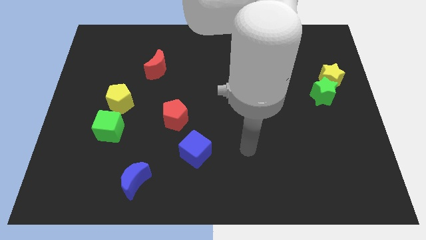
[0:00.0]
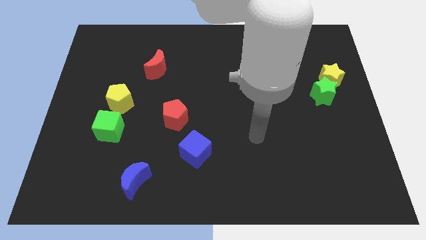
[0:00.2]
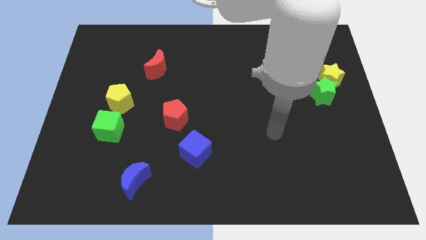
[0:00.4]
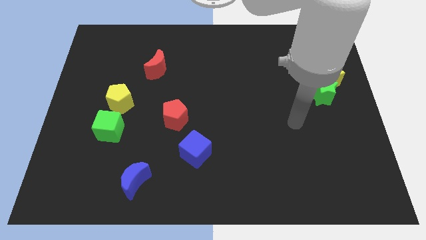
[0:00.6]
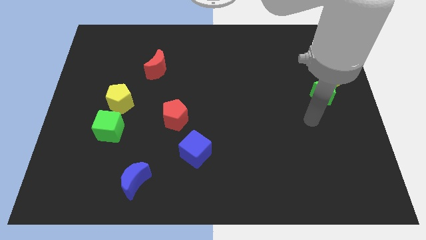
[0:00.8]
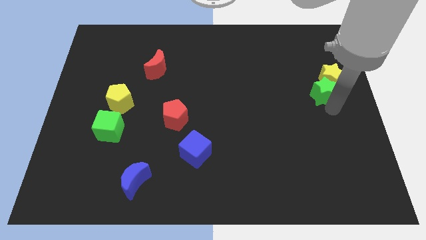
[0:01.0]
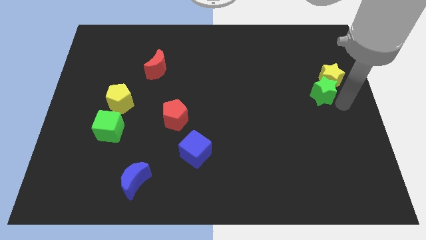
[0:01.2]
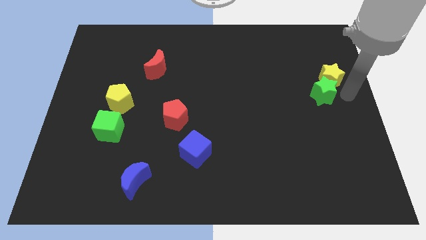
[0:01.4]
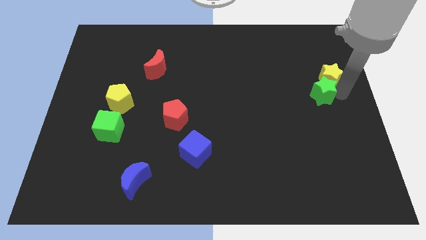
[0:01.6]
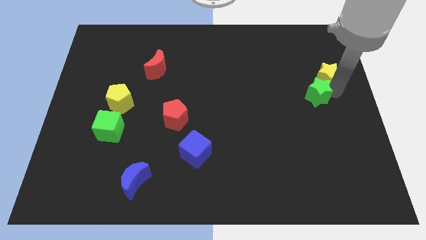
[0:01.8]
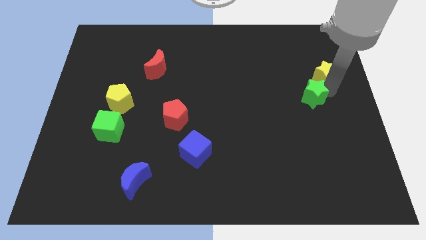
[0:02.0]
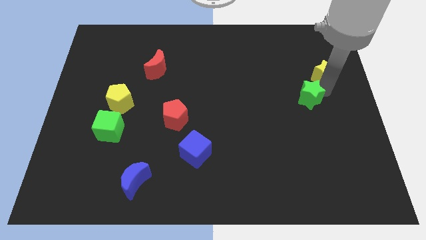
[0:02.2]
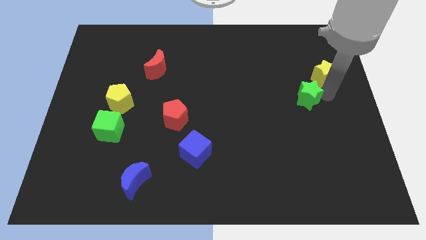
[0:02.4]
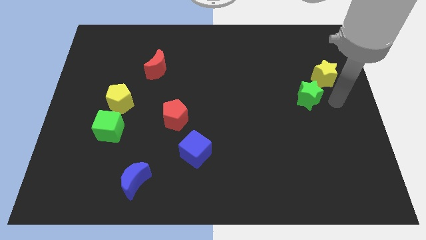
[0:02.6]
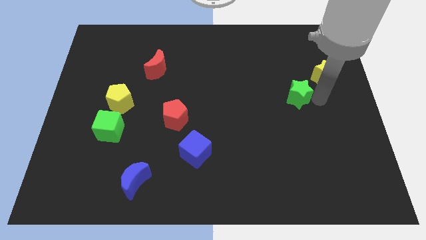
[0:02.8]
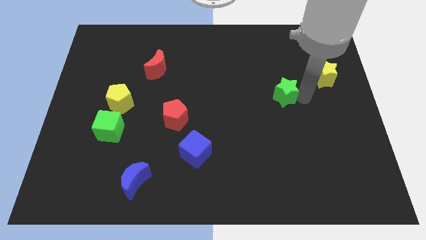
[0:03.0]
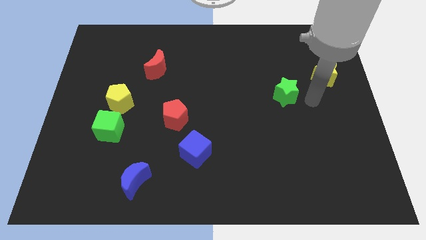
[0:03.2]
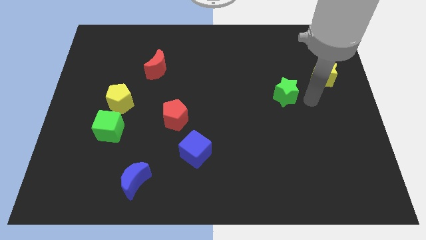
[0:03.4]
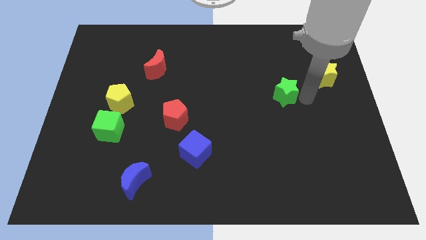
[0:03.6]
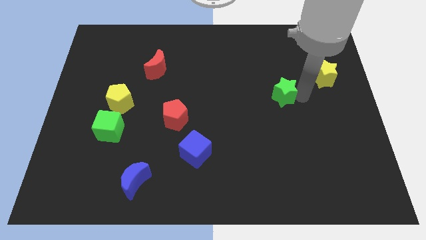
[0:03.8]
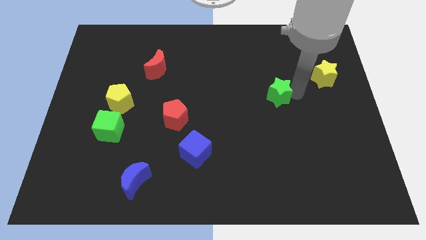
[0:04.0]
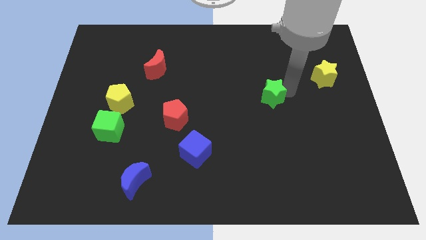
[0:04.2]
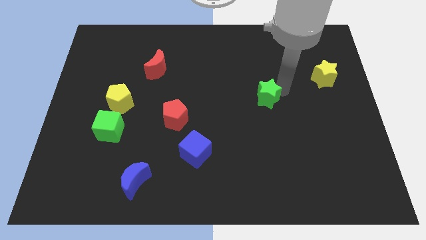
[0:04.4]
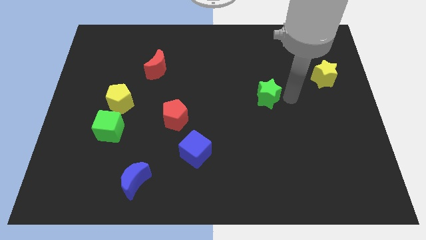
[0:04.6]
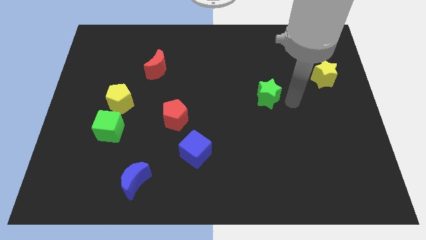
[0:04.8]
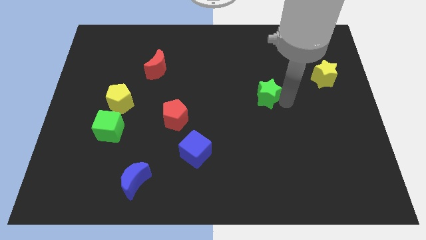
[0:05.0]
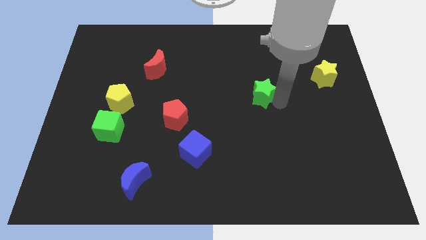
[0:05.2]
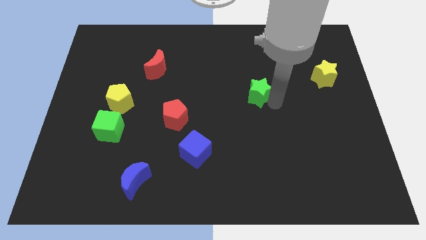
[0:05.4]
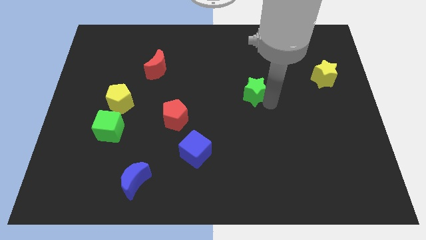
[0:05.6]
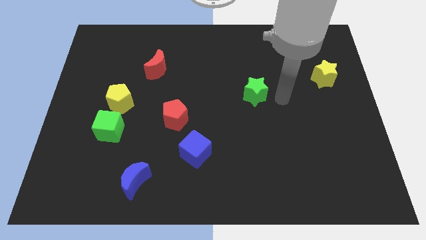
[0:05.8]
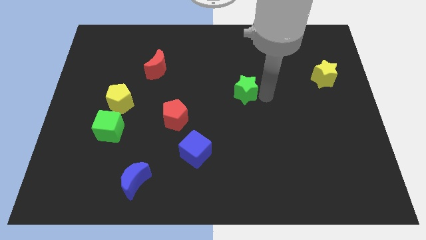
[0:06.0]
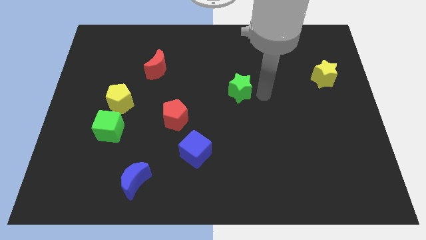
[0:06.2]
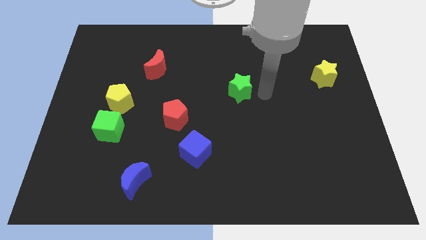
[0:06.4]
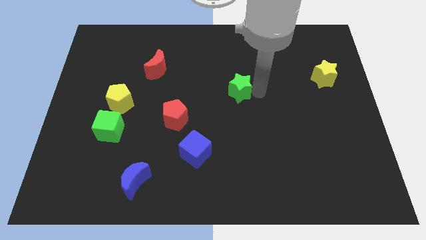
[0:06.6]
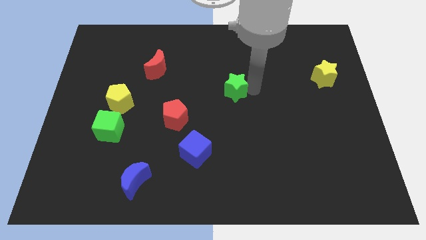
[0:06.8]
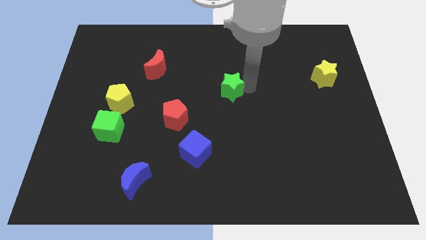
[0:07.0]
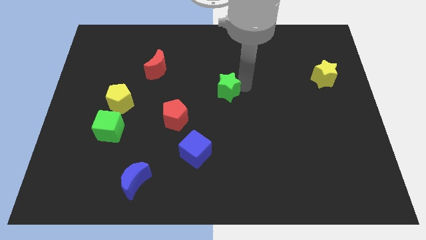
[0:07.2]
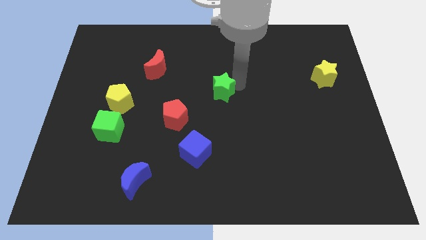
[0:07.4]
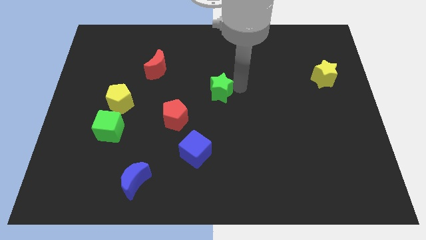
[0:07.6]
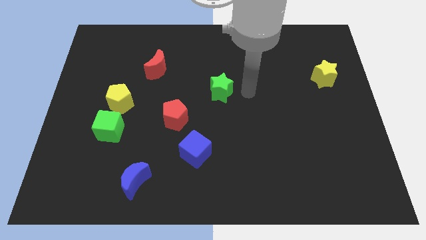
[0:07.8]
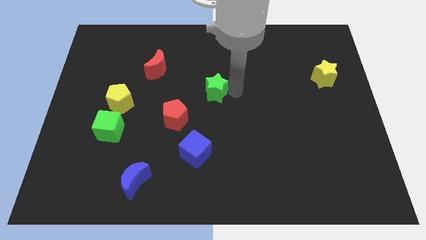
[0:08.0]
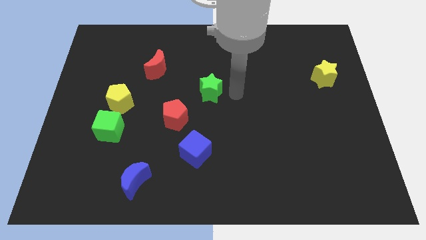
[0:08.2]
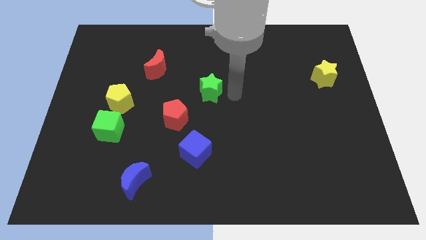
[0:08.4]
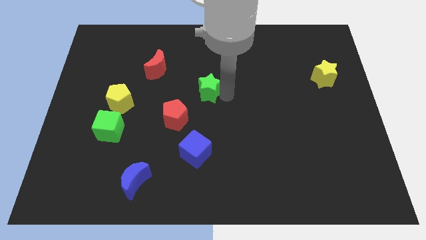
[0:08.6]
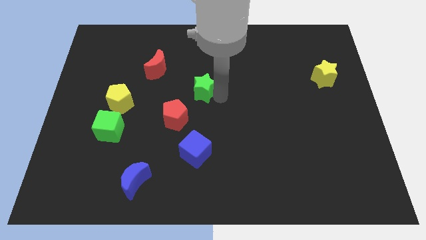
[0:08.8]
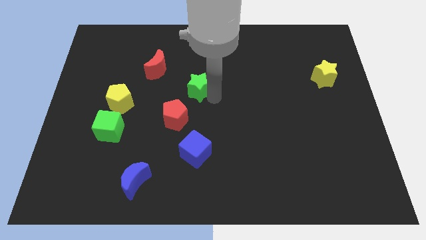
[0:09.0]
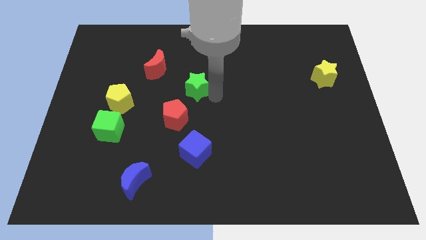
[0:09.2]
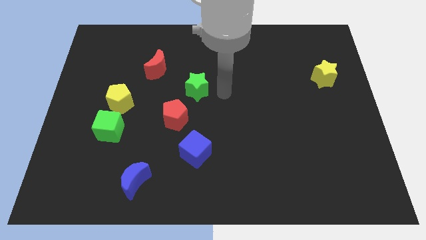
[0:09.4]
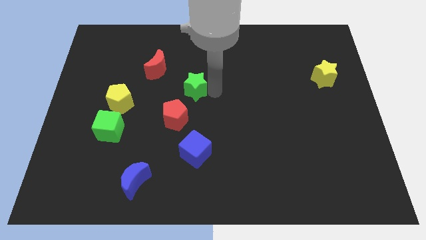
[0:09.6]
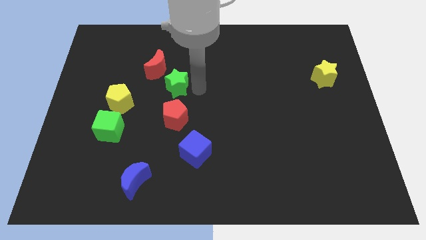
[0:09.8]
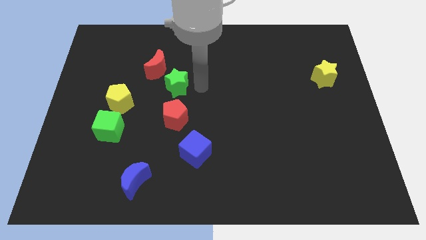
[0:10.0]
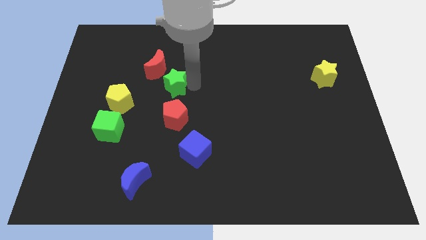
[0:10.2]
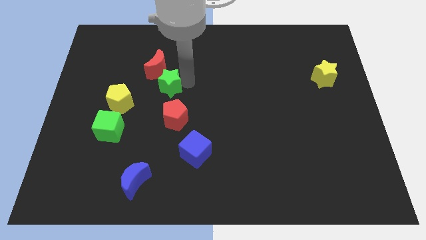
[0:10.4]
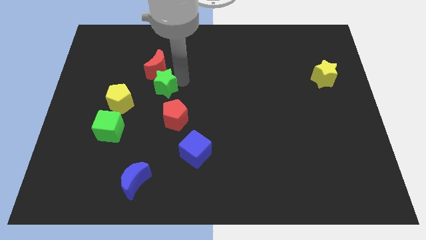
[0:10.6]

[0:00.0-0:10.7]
slide the green star to the top right side of the yellow pentagon

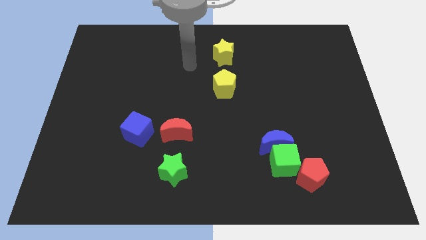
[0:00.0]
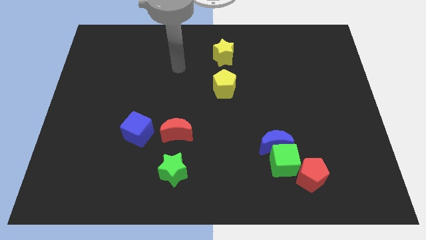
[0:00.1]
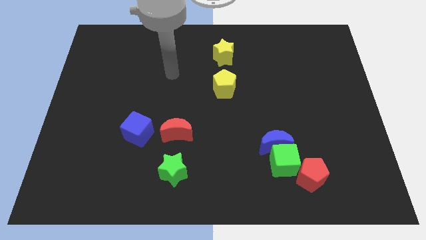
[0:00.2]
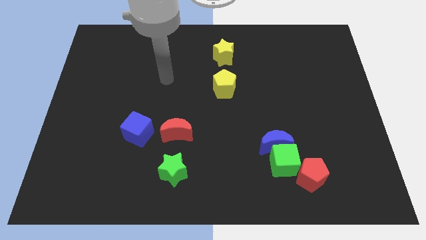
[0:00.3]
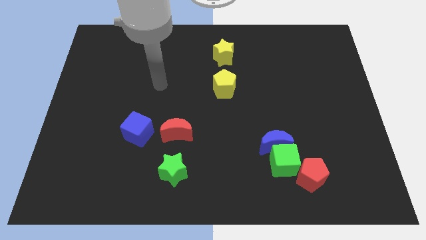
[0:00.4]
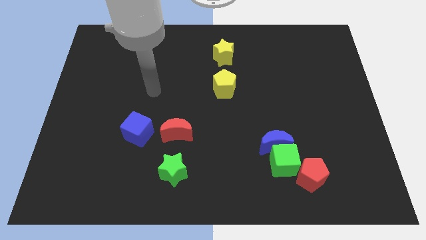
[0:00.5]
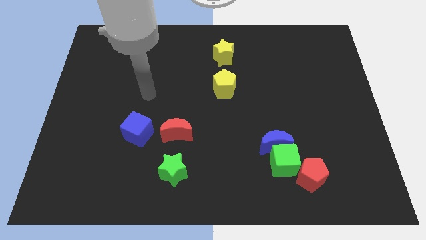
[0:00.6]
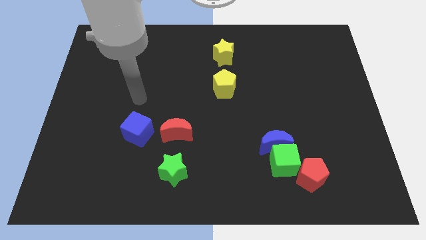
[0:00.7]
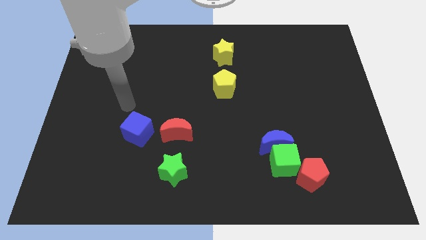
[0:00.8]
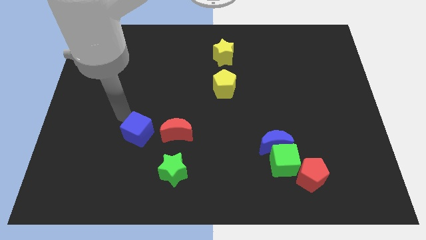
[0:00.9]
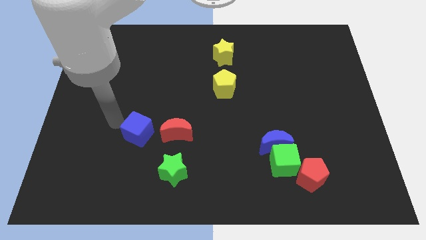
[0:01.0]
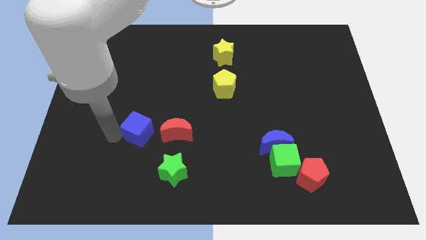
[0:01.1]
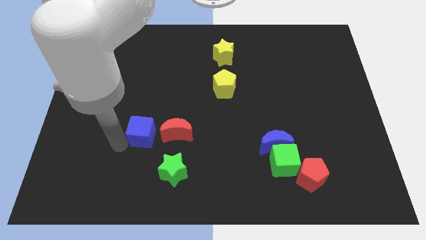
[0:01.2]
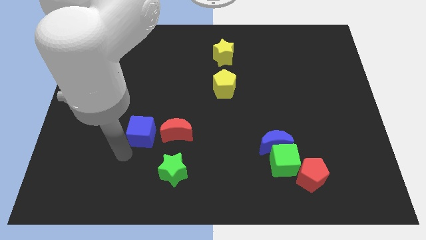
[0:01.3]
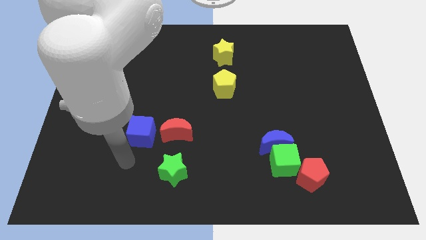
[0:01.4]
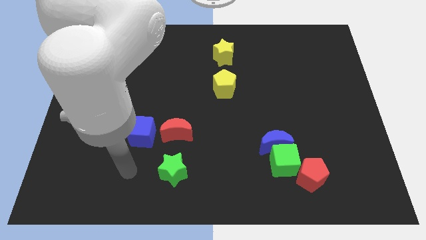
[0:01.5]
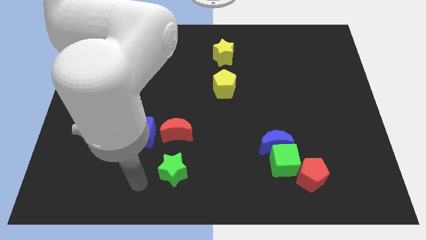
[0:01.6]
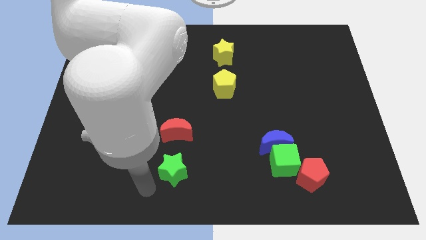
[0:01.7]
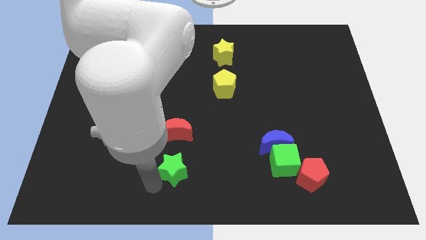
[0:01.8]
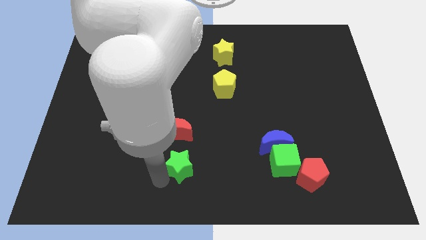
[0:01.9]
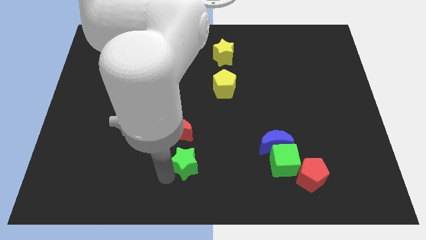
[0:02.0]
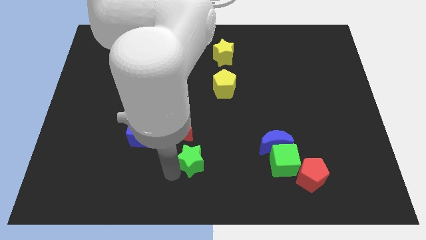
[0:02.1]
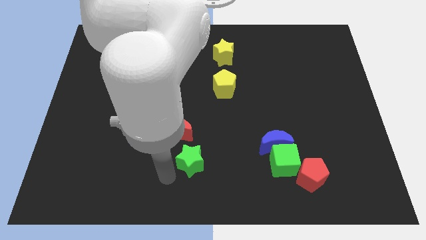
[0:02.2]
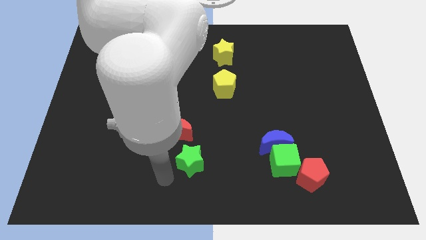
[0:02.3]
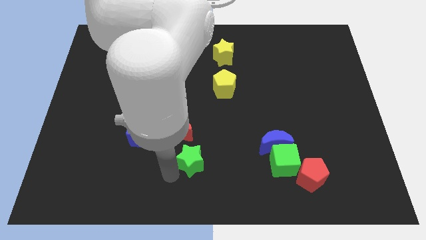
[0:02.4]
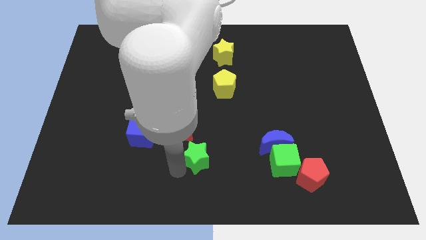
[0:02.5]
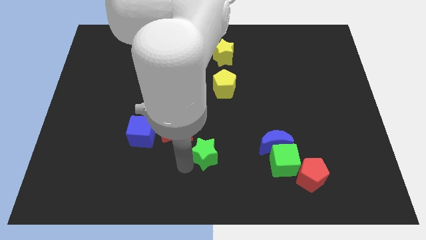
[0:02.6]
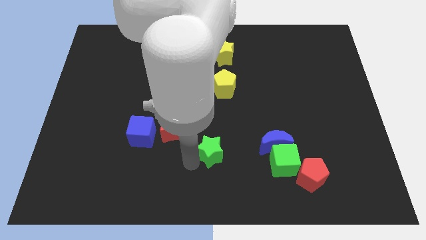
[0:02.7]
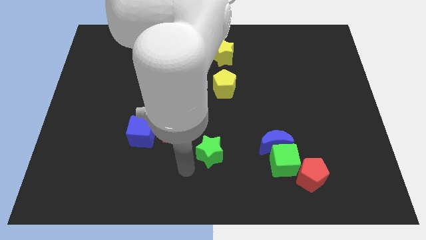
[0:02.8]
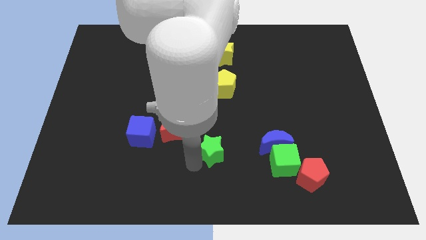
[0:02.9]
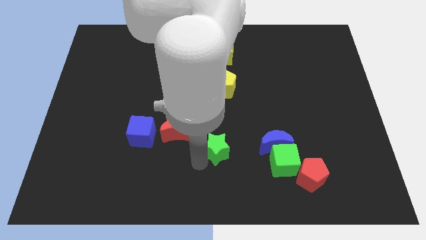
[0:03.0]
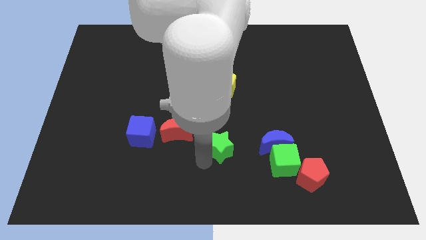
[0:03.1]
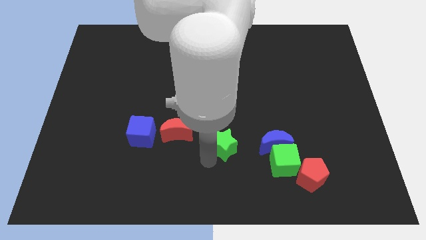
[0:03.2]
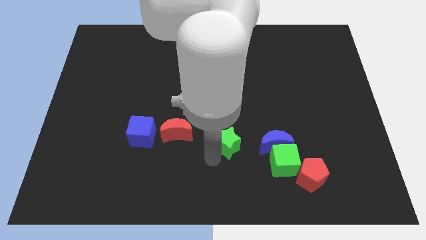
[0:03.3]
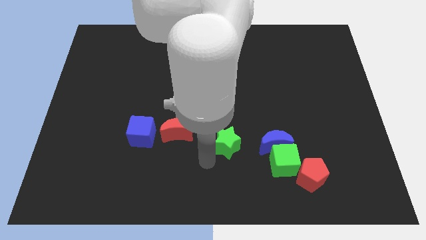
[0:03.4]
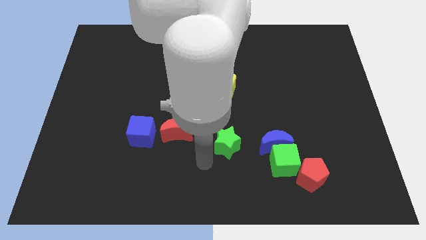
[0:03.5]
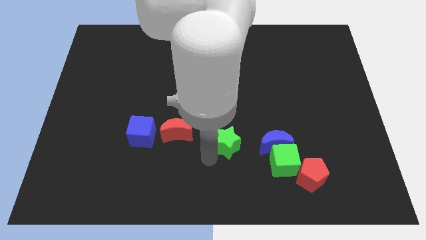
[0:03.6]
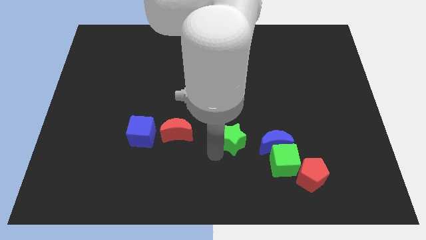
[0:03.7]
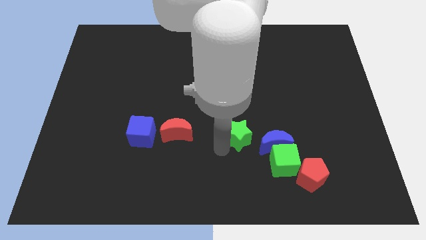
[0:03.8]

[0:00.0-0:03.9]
put the green star to the top left of the blue moon
